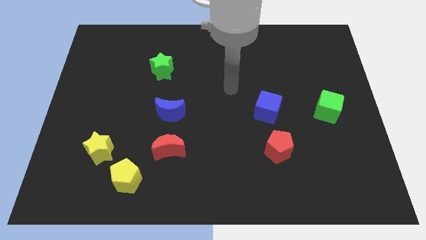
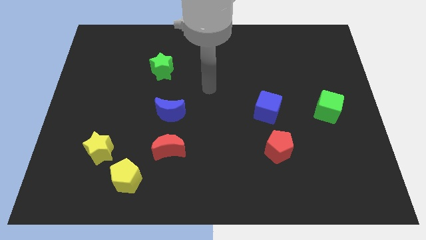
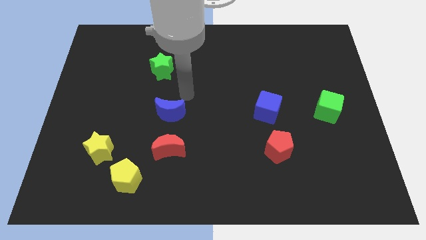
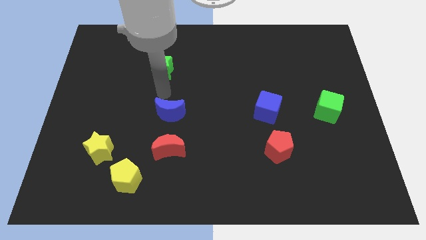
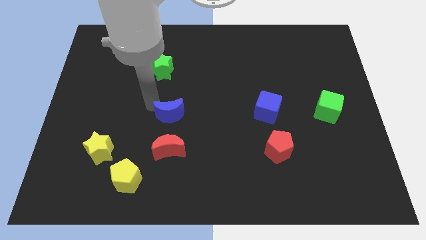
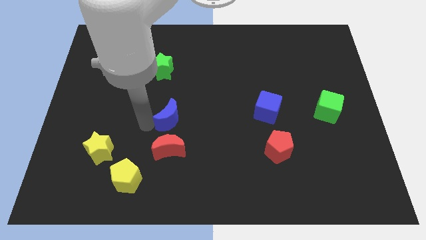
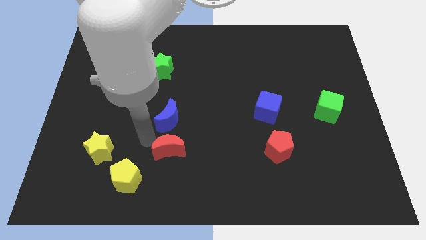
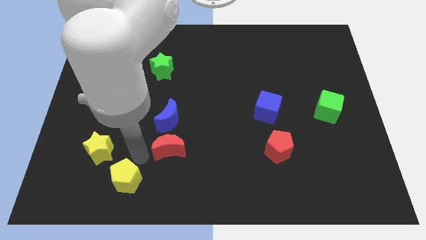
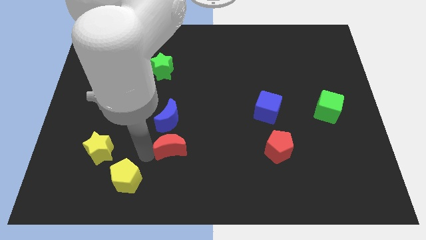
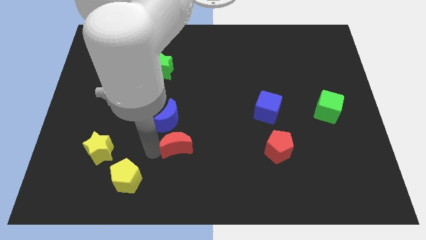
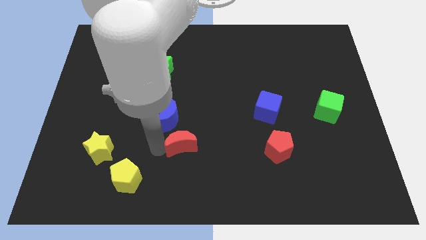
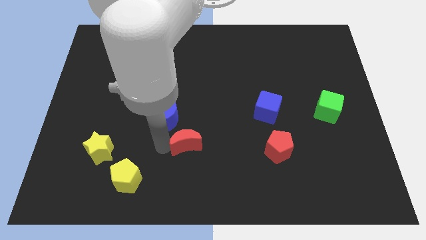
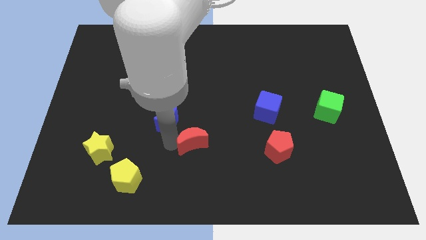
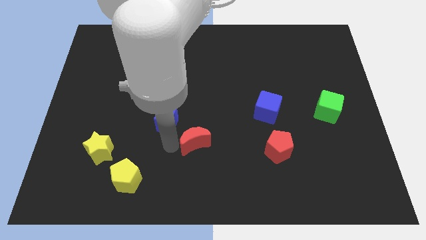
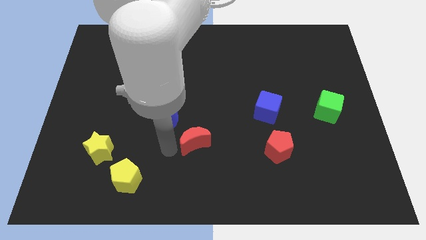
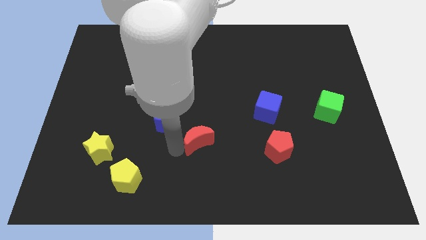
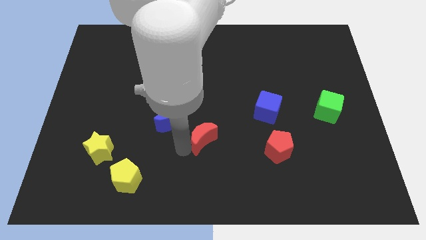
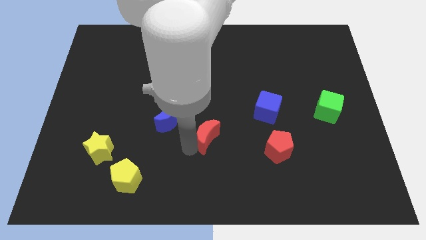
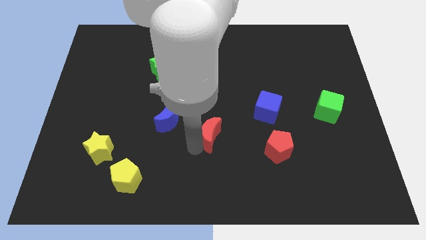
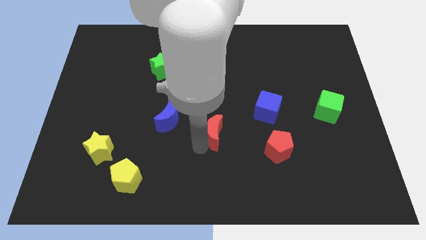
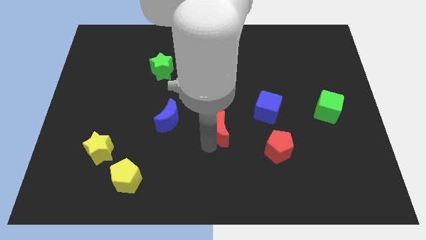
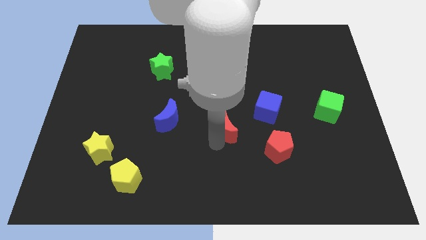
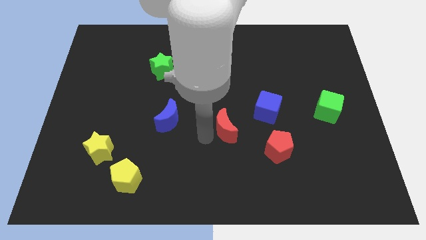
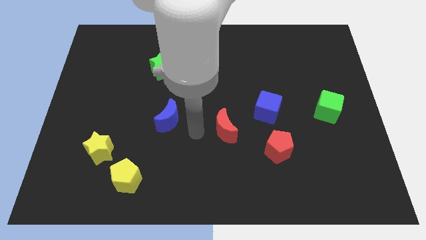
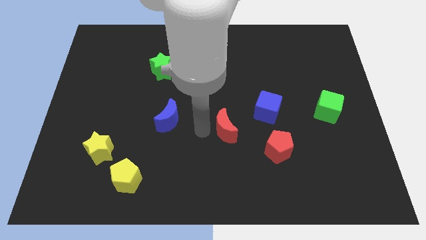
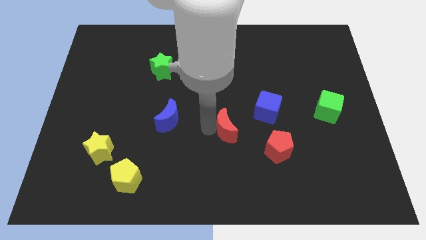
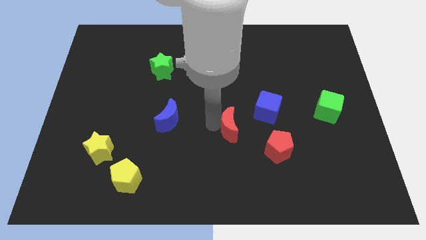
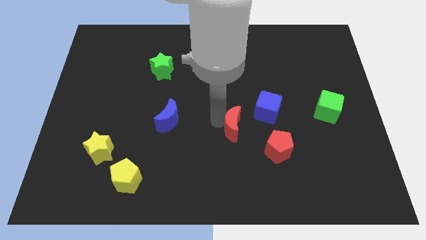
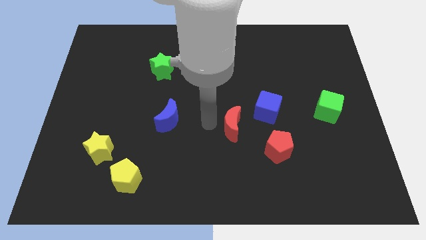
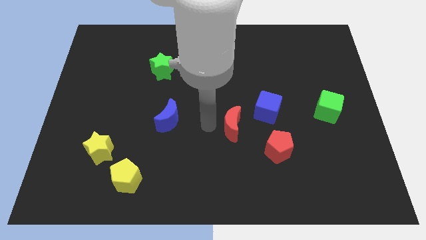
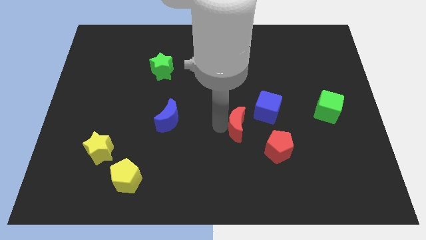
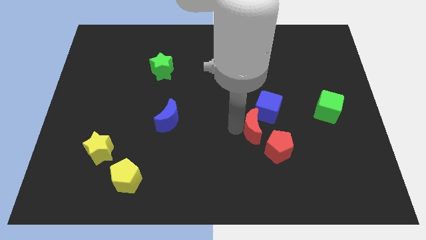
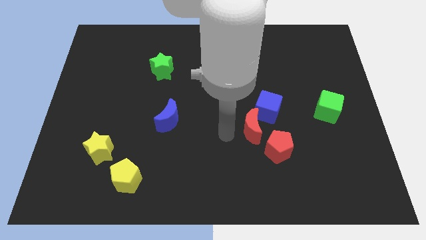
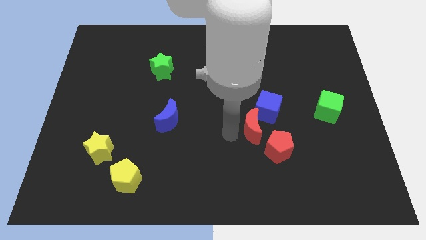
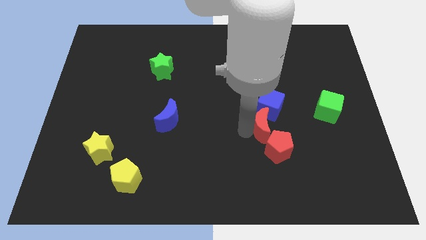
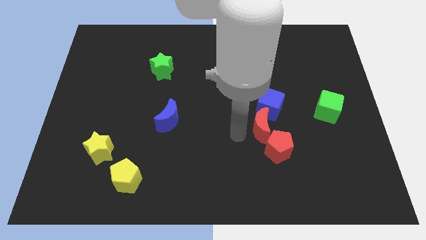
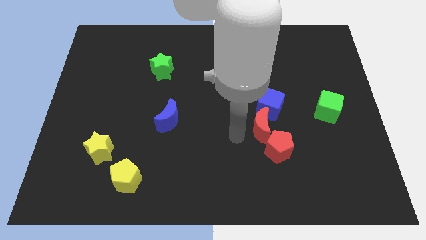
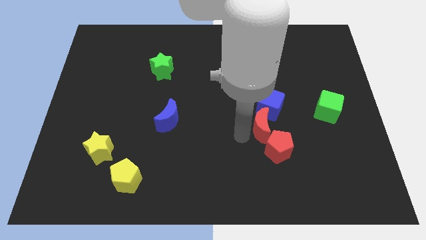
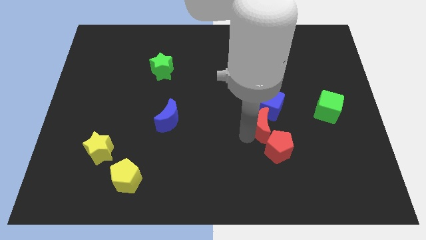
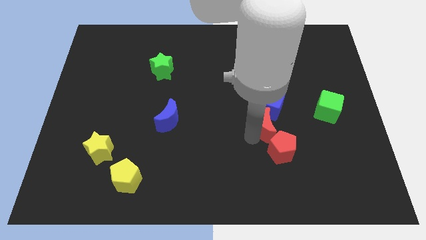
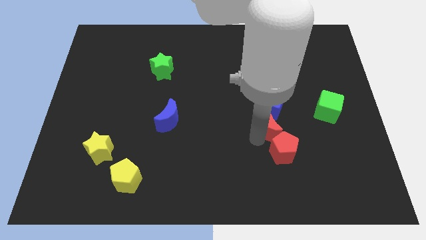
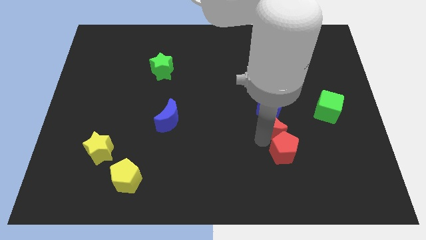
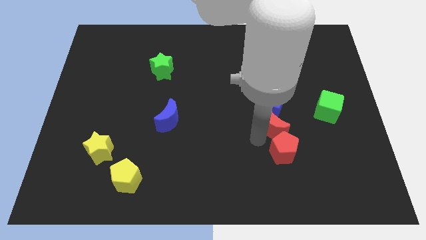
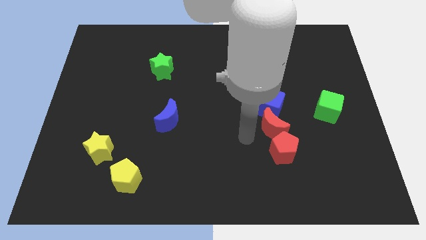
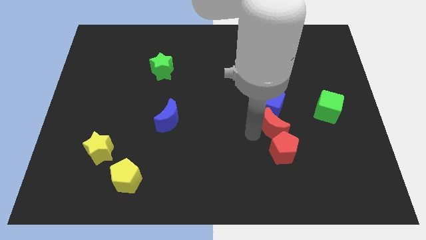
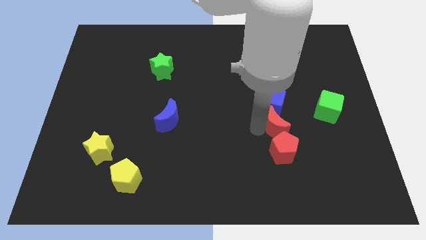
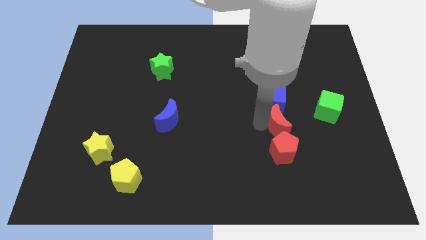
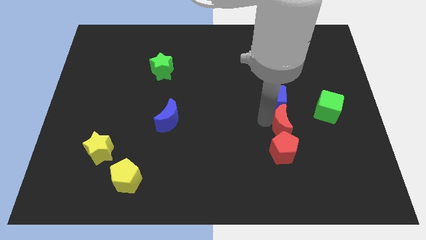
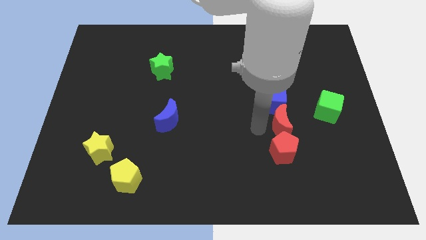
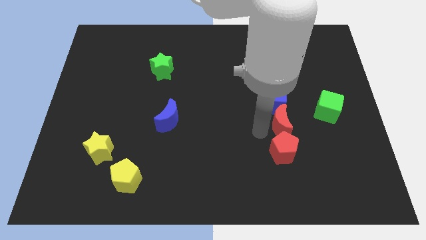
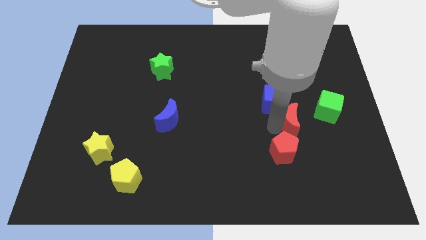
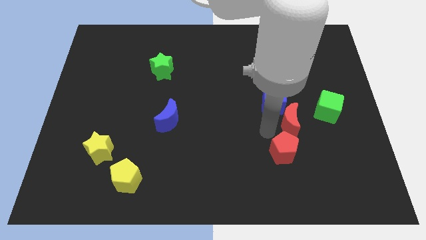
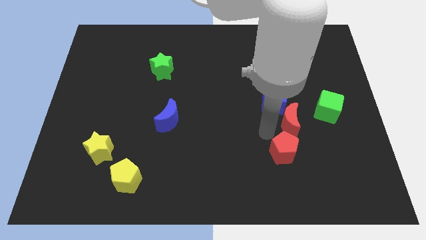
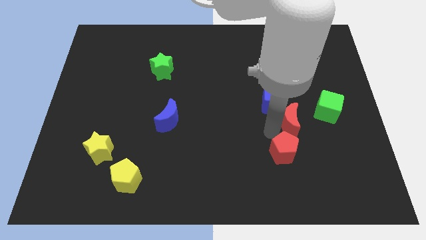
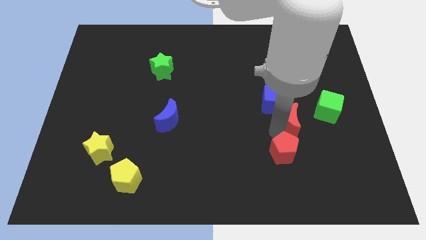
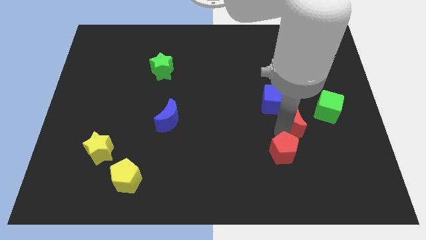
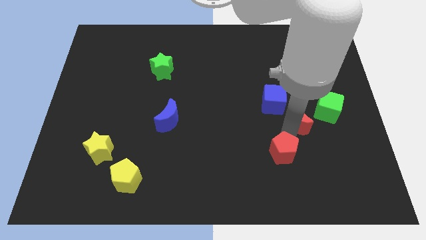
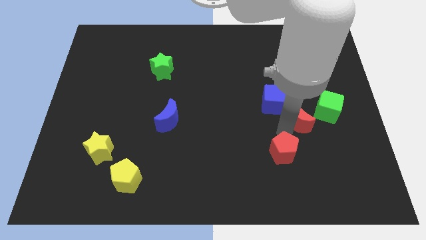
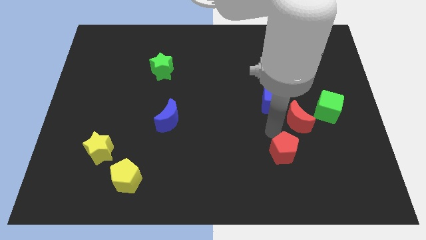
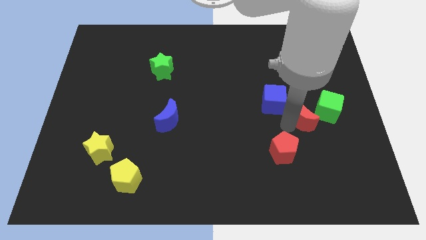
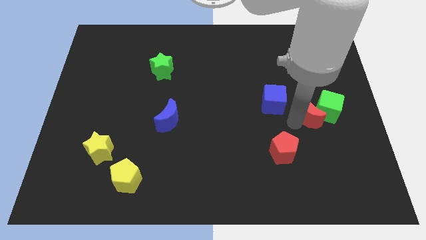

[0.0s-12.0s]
move the red moon close to the green cube

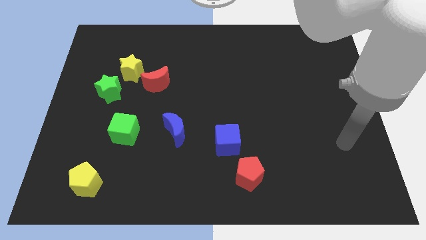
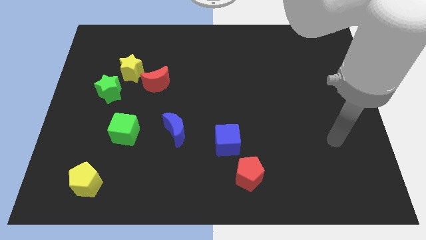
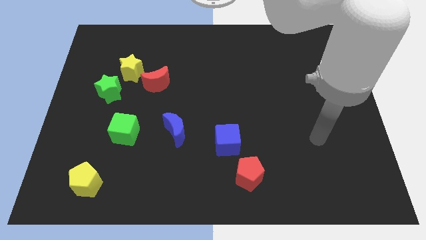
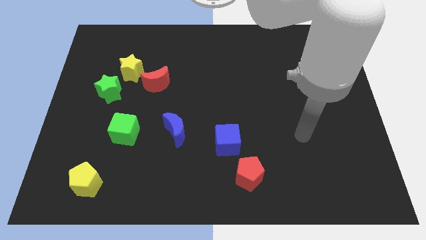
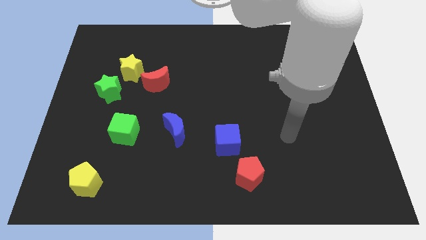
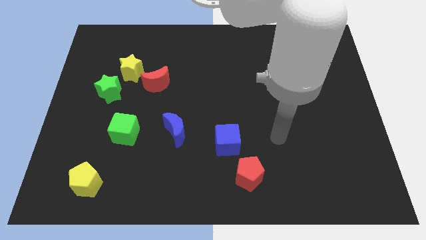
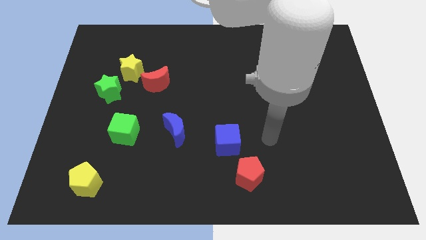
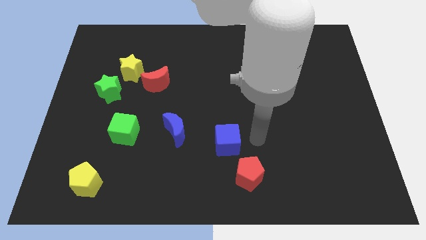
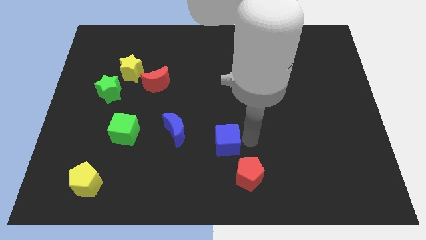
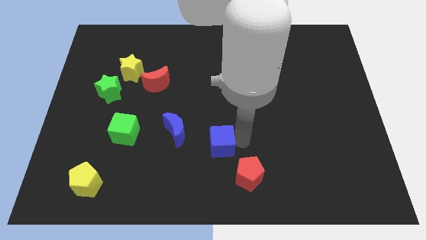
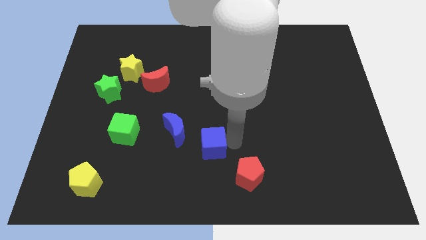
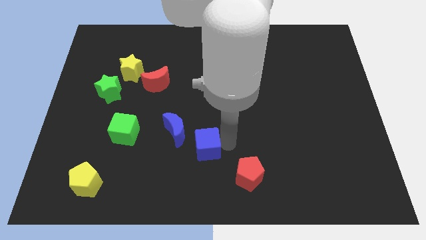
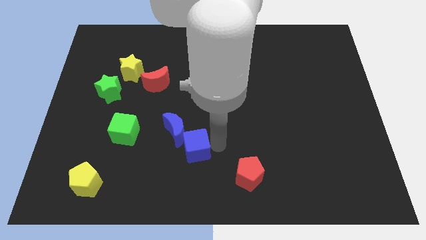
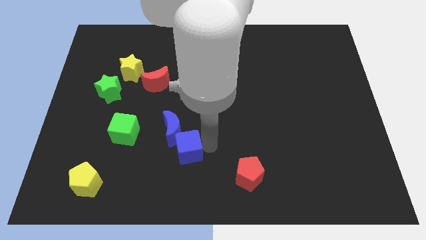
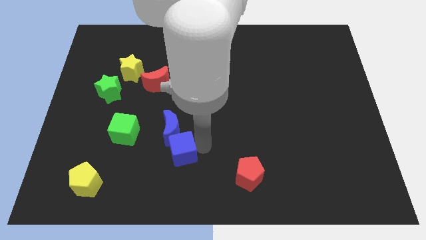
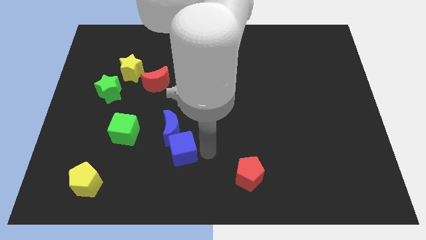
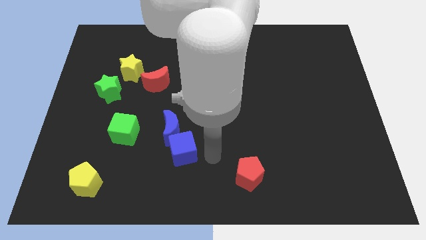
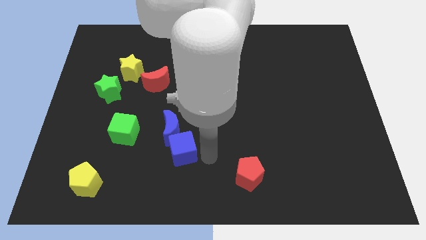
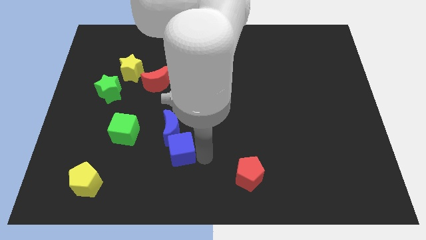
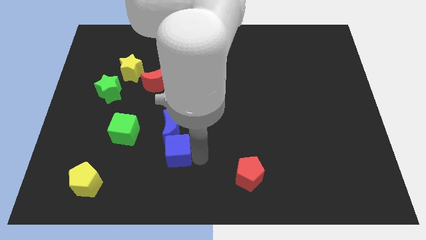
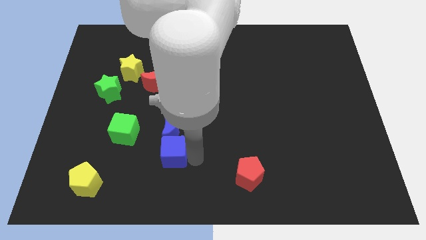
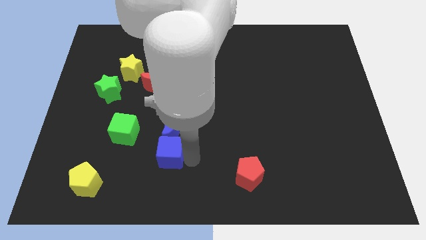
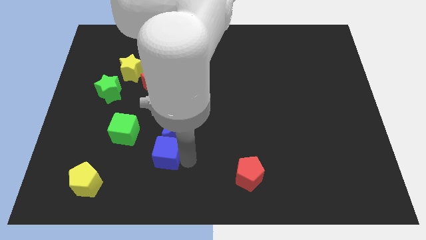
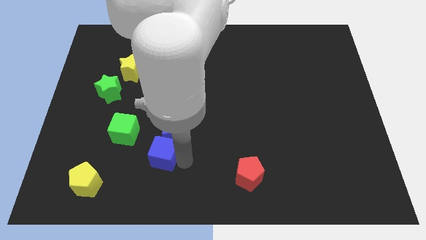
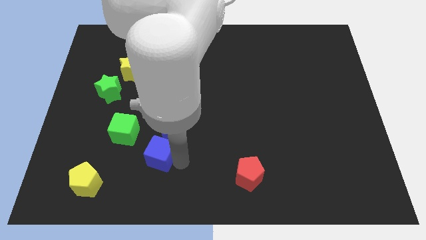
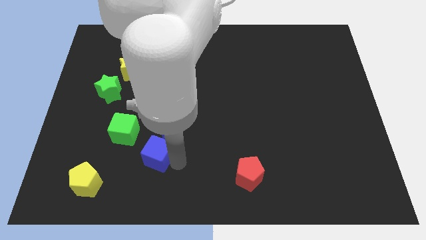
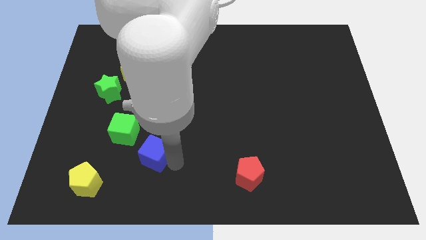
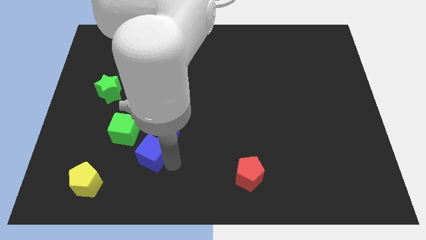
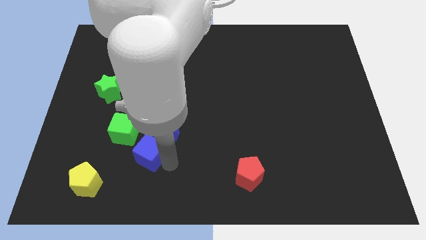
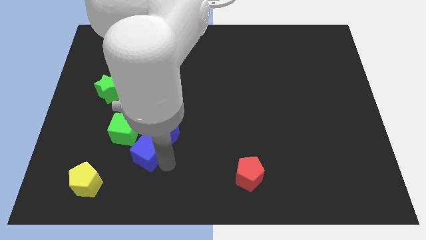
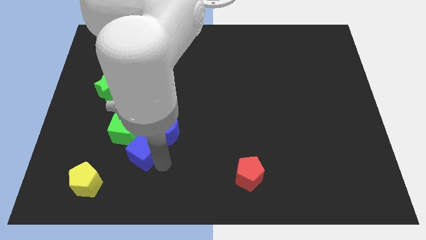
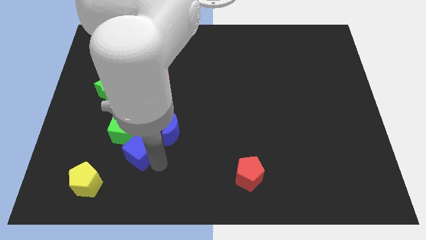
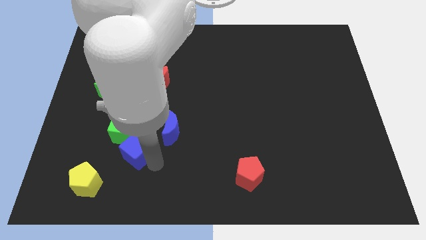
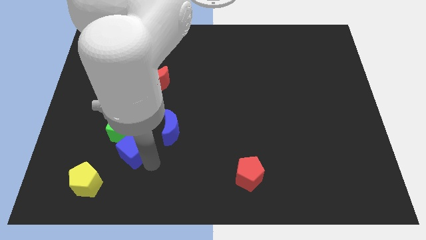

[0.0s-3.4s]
push the blue cube to the green cube
